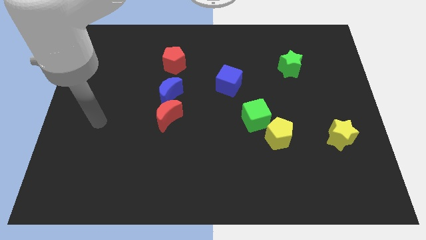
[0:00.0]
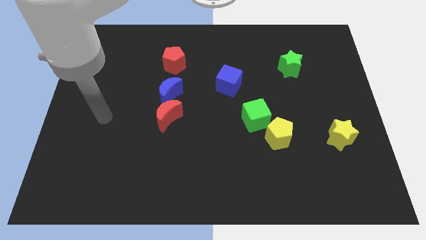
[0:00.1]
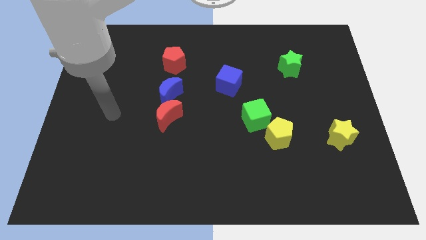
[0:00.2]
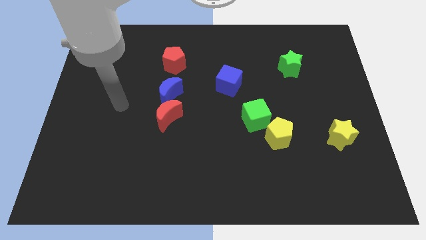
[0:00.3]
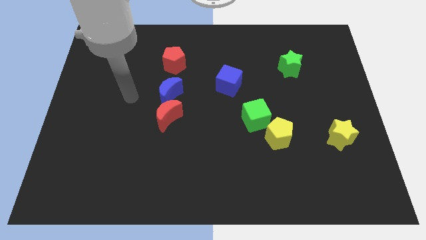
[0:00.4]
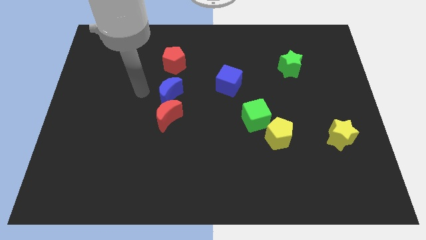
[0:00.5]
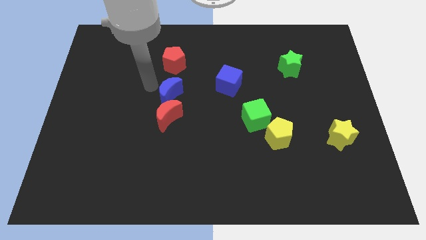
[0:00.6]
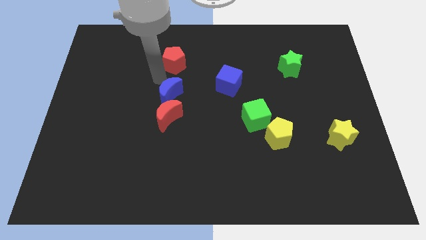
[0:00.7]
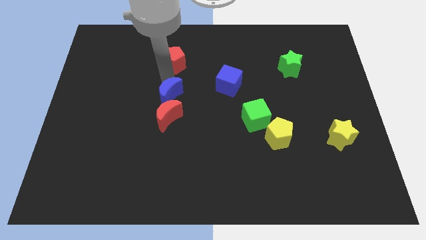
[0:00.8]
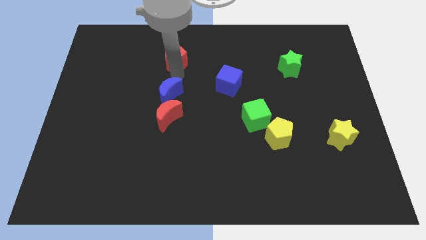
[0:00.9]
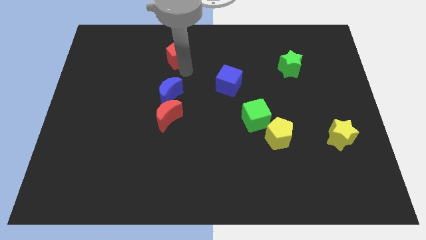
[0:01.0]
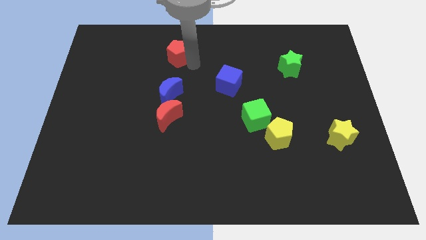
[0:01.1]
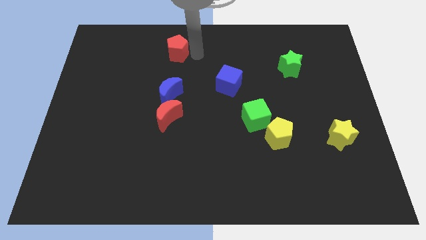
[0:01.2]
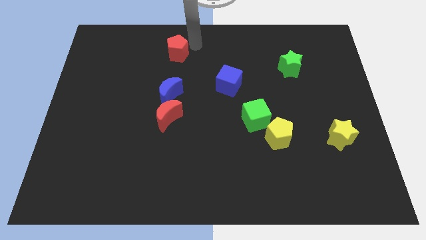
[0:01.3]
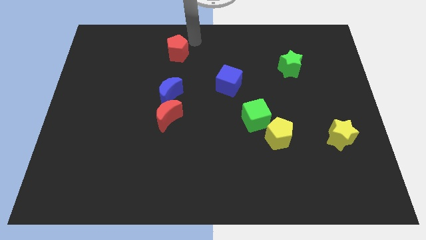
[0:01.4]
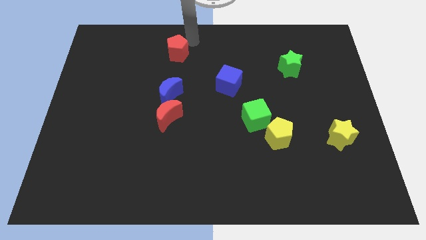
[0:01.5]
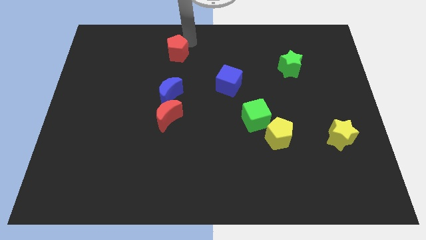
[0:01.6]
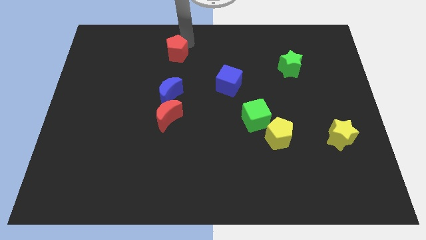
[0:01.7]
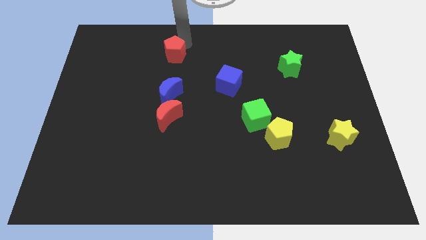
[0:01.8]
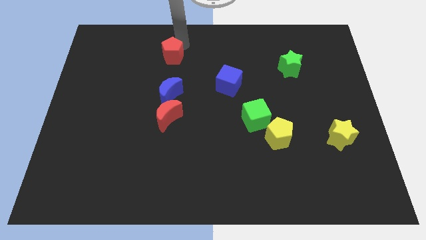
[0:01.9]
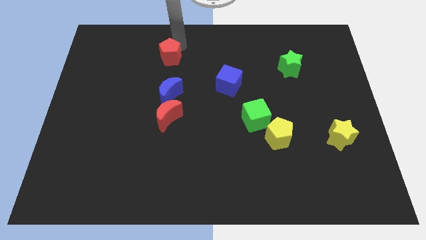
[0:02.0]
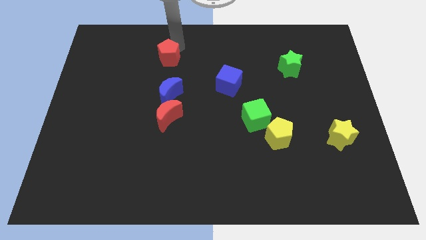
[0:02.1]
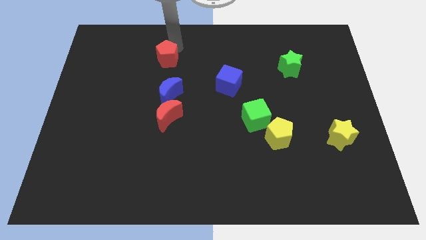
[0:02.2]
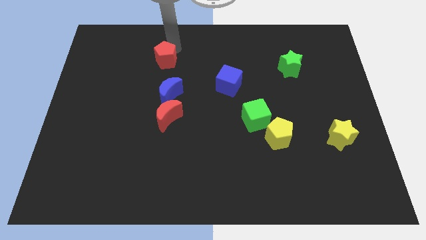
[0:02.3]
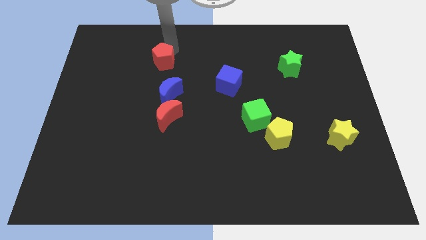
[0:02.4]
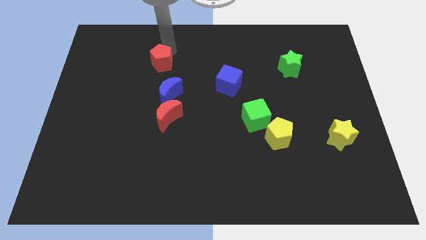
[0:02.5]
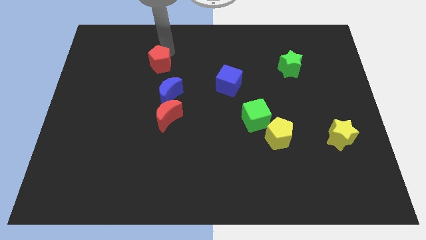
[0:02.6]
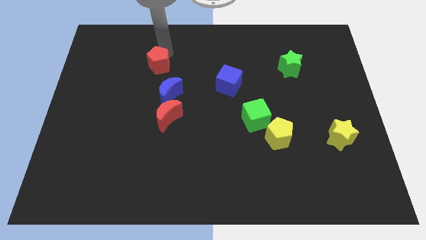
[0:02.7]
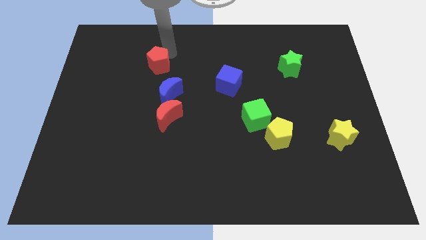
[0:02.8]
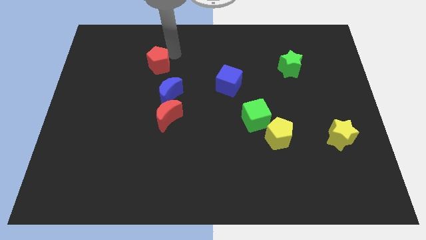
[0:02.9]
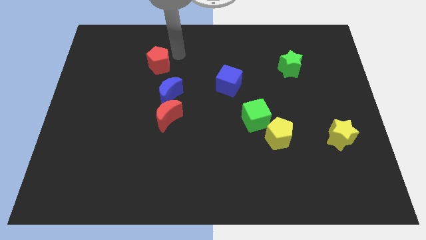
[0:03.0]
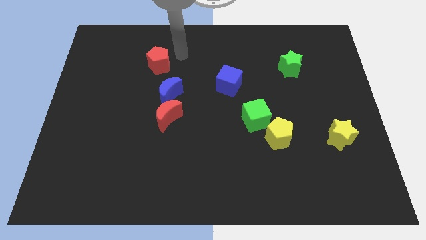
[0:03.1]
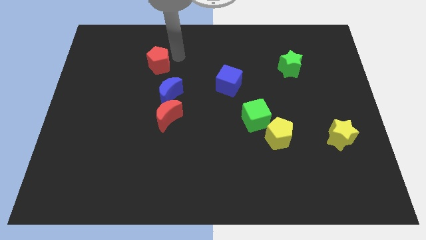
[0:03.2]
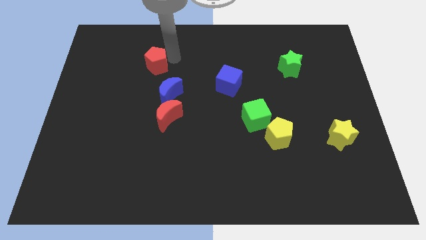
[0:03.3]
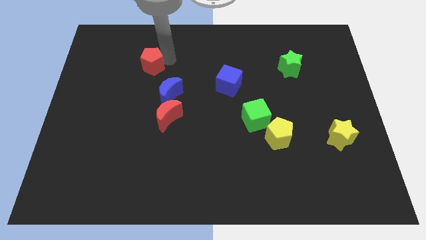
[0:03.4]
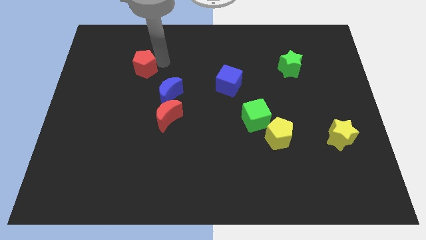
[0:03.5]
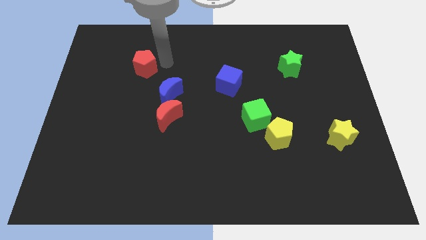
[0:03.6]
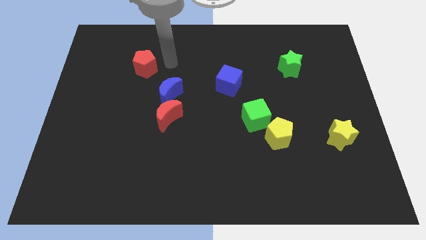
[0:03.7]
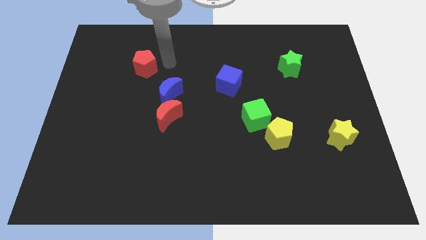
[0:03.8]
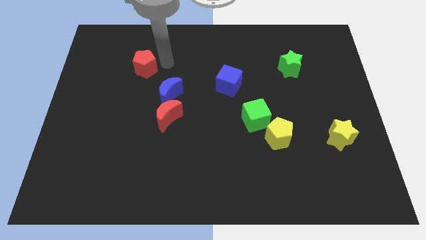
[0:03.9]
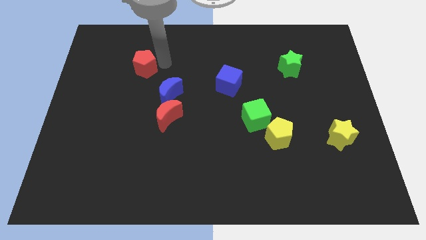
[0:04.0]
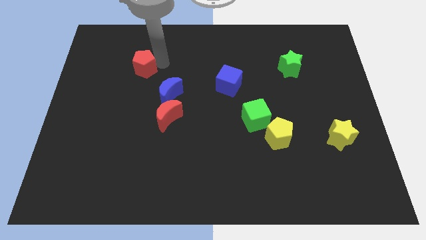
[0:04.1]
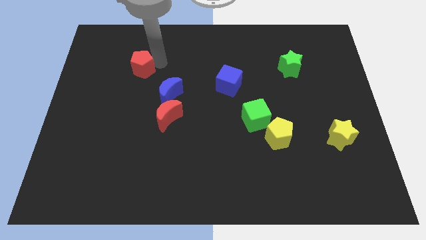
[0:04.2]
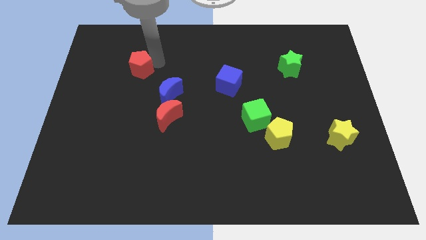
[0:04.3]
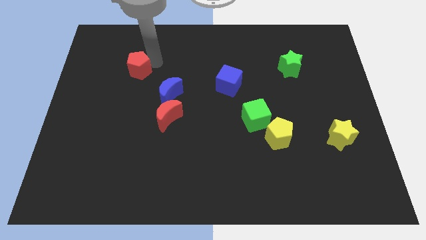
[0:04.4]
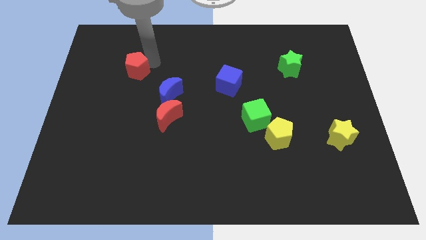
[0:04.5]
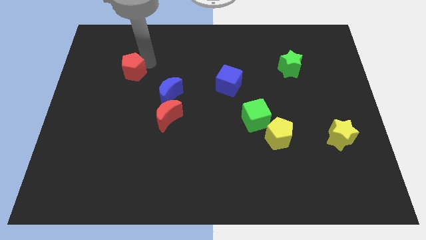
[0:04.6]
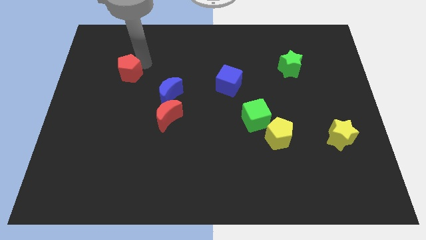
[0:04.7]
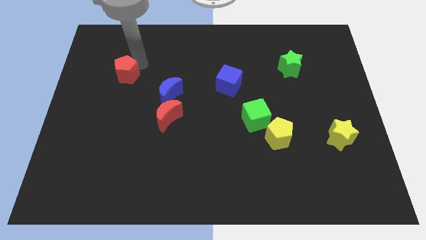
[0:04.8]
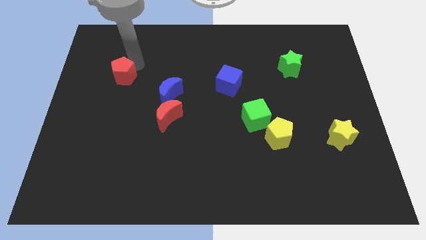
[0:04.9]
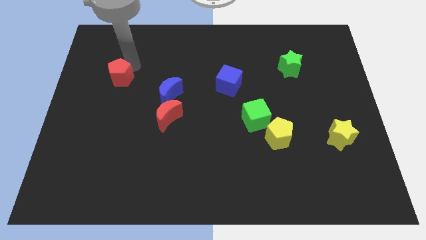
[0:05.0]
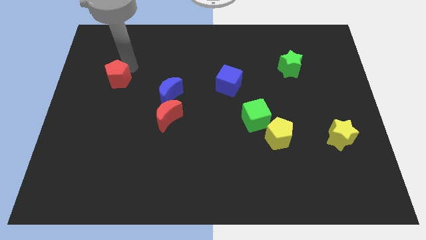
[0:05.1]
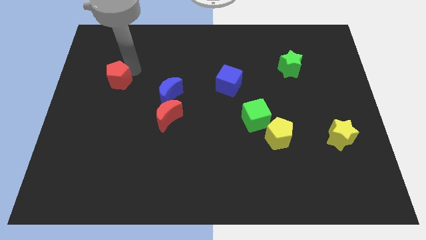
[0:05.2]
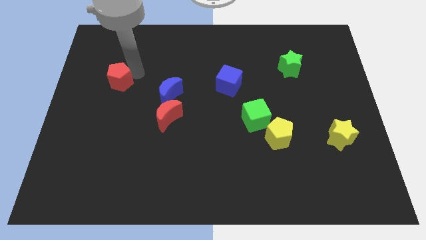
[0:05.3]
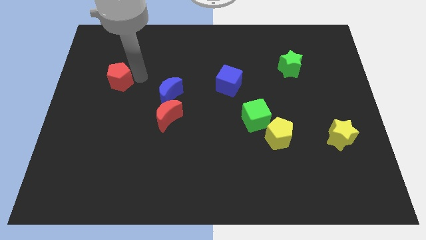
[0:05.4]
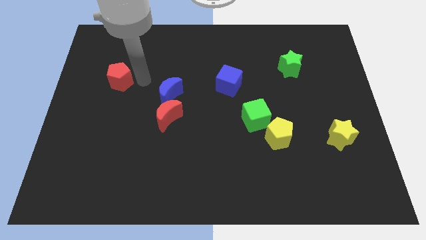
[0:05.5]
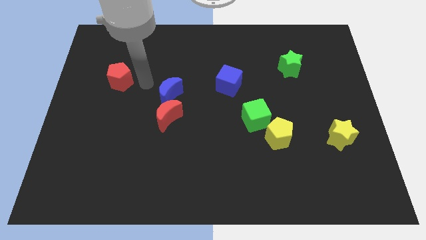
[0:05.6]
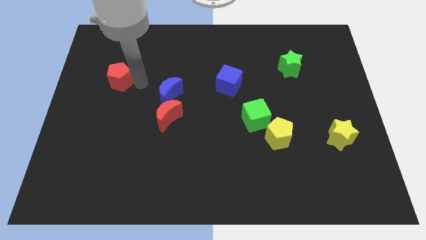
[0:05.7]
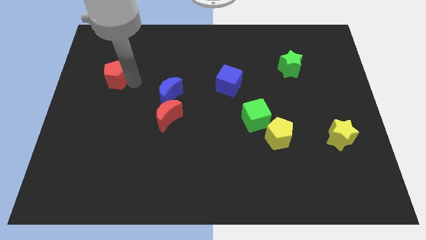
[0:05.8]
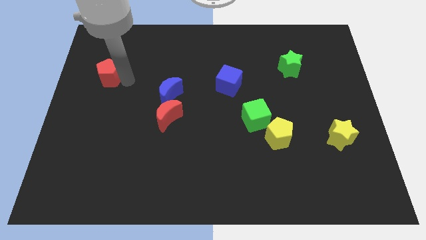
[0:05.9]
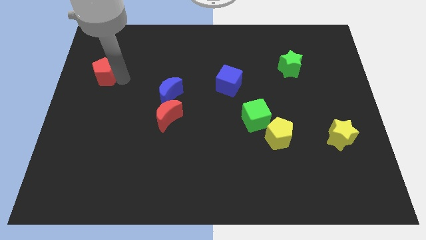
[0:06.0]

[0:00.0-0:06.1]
push the red pentagon to the left side of the board
